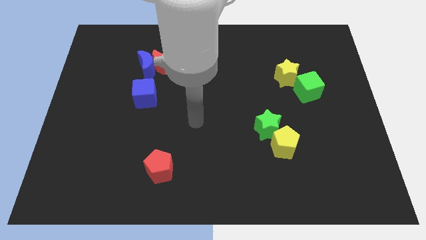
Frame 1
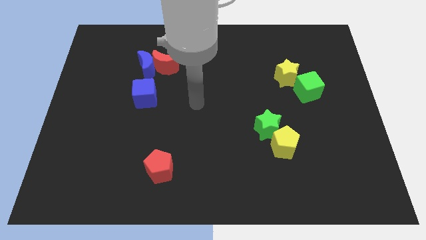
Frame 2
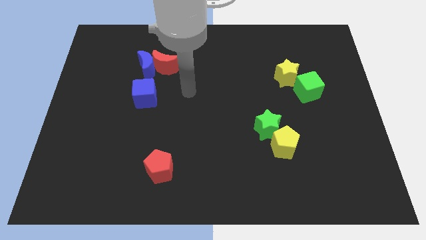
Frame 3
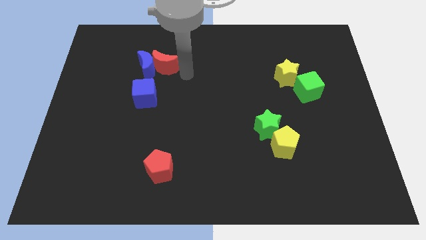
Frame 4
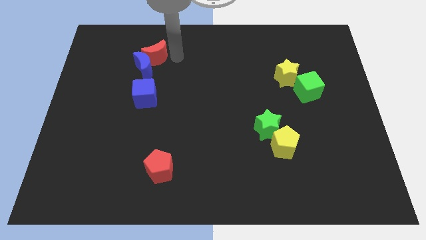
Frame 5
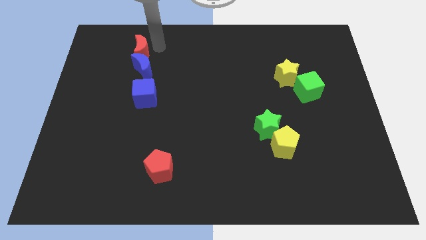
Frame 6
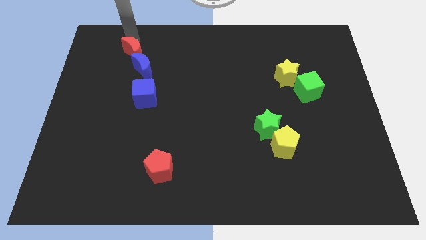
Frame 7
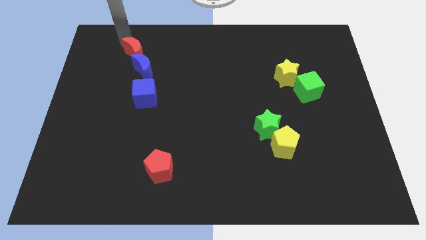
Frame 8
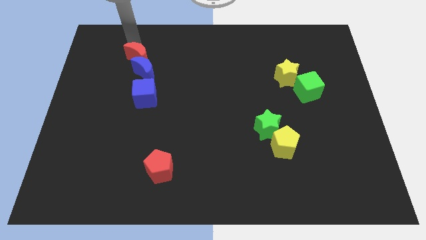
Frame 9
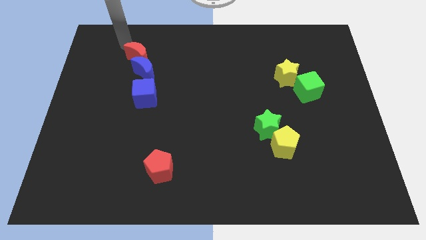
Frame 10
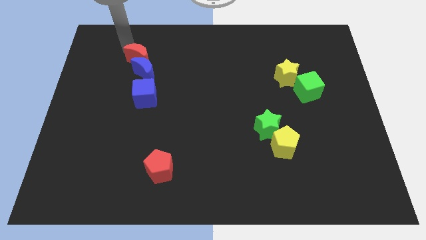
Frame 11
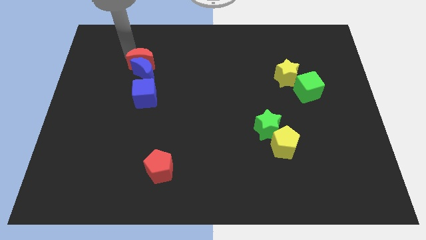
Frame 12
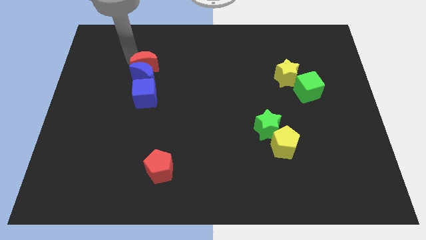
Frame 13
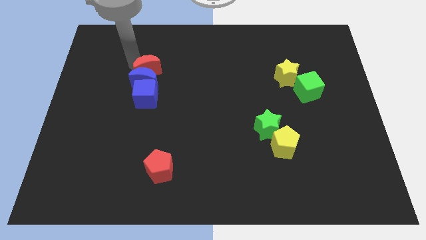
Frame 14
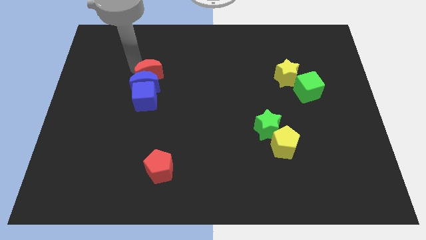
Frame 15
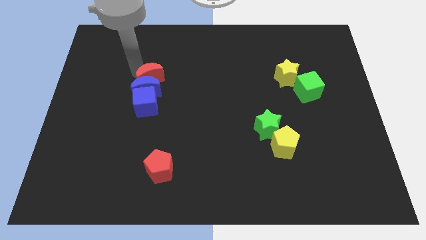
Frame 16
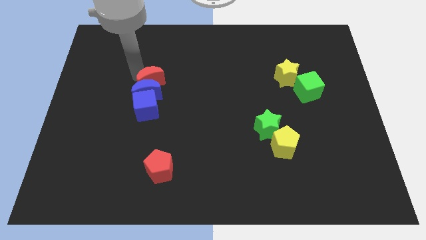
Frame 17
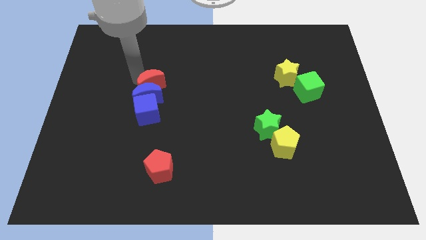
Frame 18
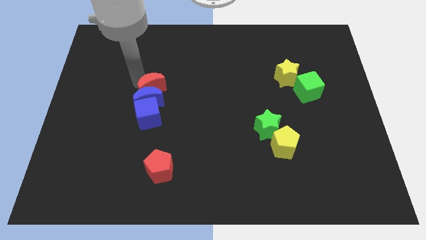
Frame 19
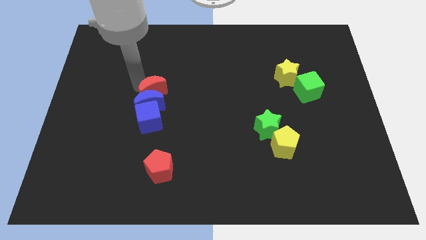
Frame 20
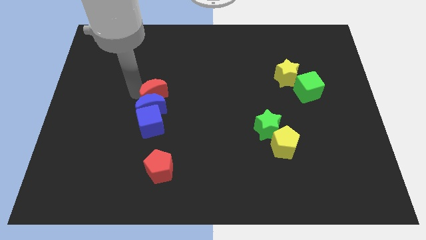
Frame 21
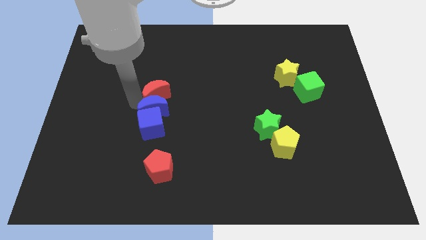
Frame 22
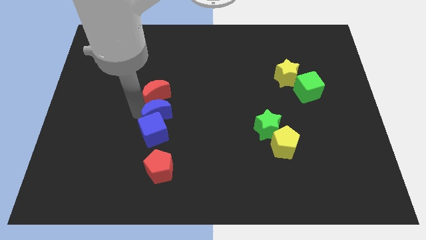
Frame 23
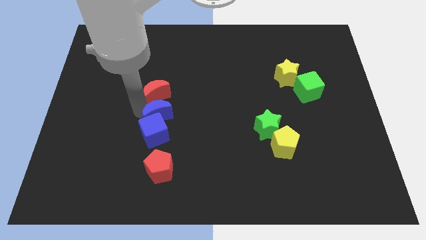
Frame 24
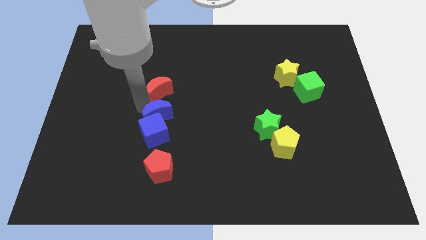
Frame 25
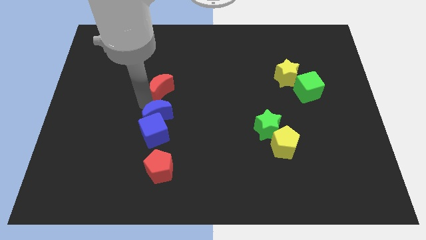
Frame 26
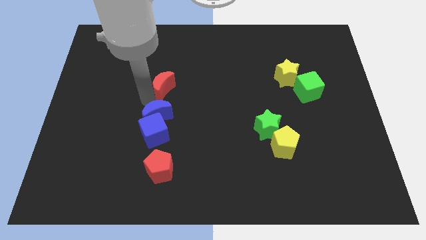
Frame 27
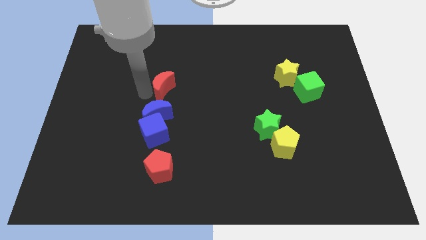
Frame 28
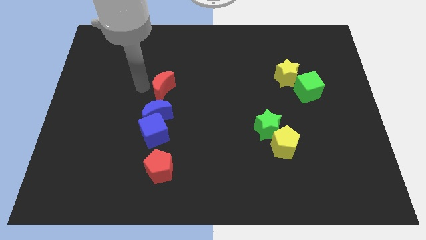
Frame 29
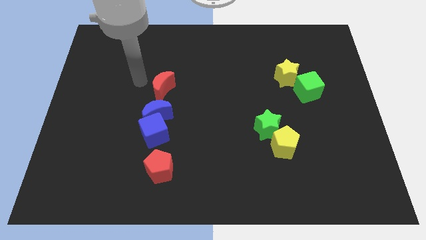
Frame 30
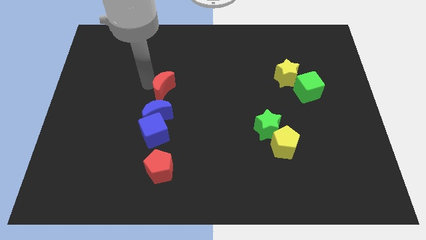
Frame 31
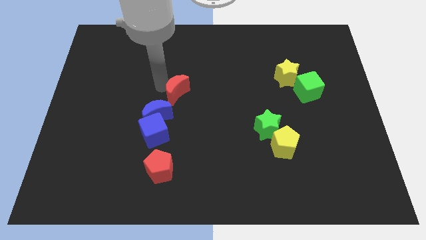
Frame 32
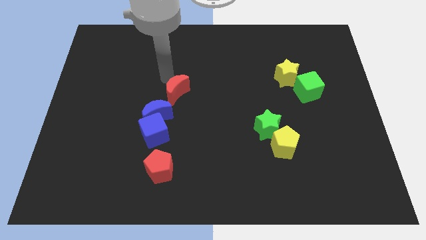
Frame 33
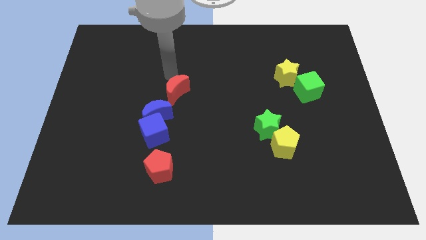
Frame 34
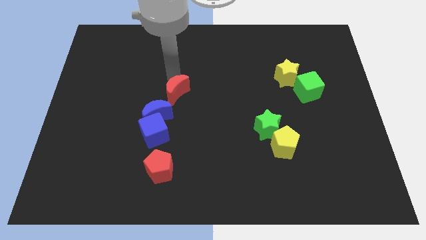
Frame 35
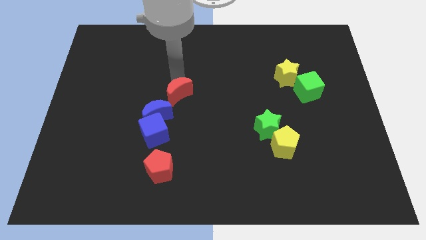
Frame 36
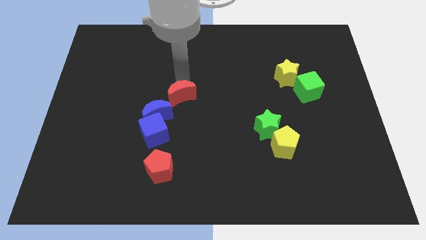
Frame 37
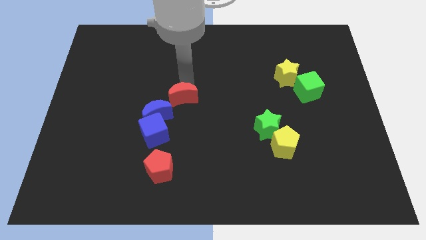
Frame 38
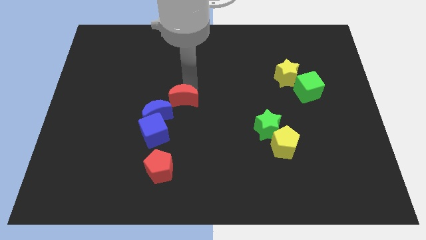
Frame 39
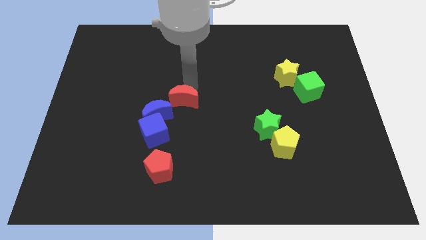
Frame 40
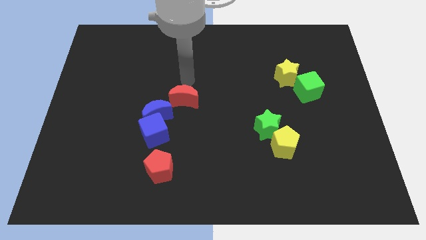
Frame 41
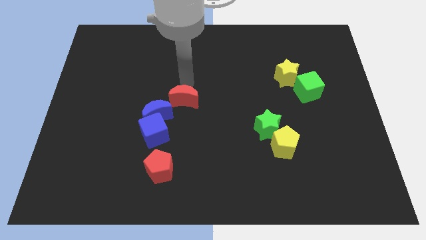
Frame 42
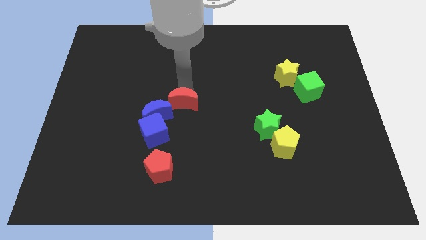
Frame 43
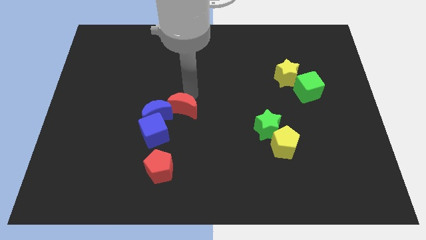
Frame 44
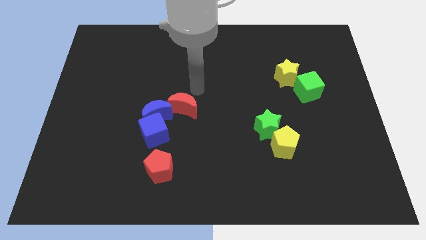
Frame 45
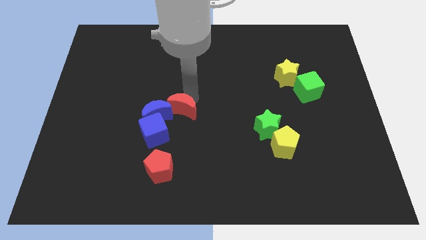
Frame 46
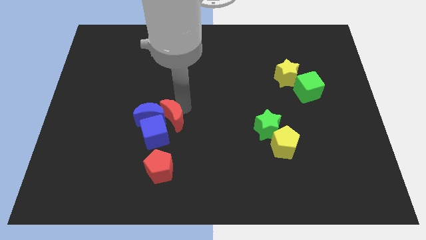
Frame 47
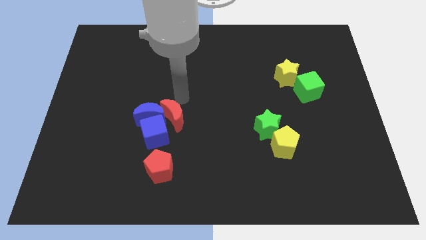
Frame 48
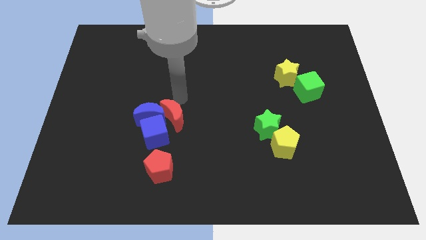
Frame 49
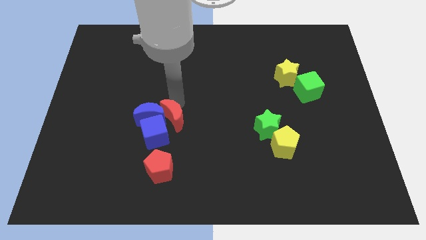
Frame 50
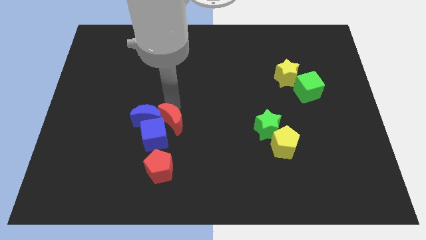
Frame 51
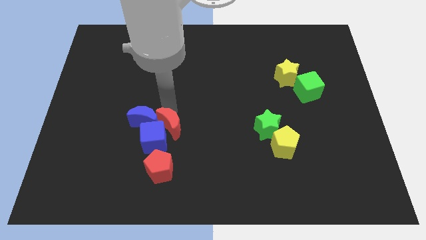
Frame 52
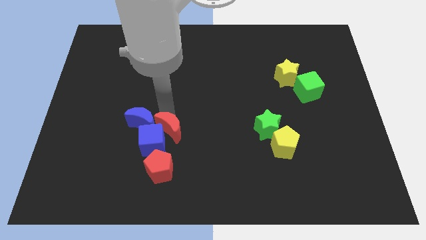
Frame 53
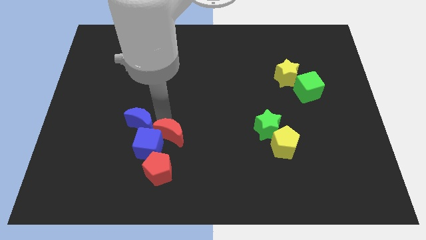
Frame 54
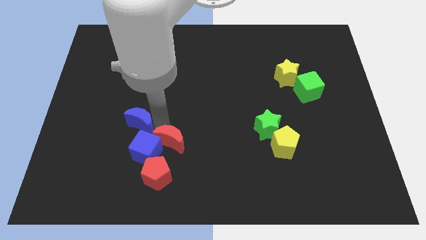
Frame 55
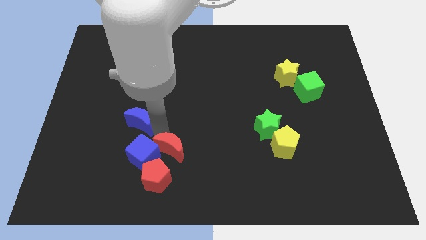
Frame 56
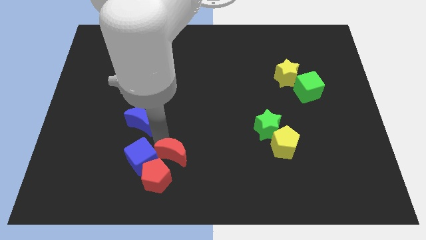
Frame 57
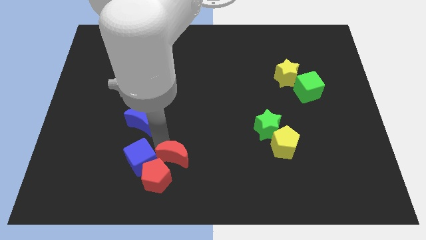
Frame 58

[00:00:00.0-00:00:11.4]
put the red moon close to the red pentagon
